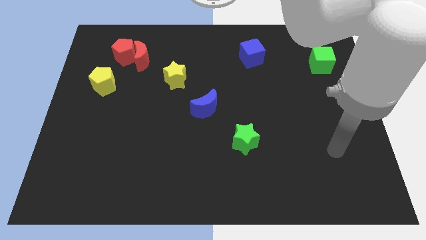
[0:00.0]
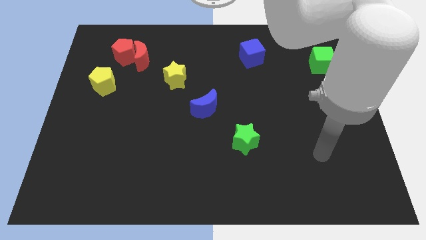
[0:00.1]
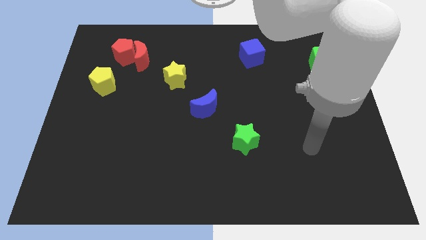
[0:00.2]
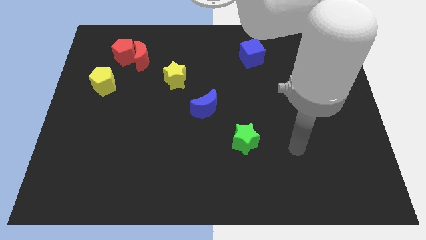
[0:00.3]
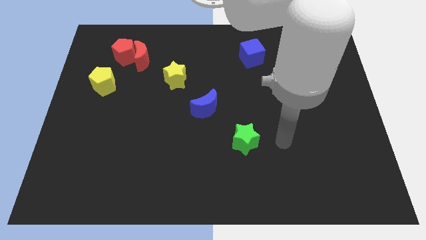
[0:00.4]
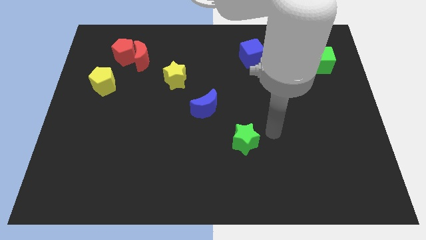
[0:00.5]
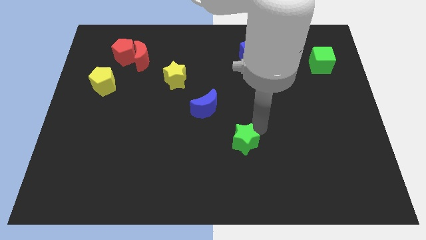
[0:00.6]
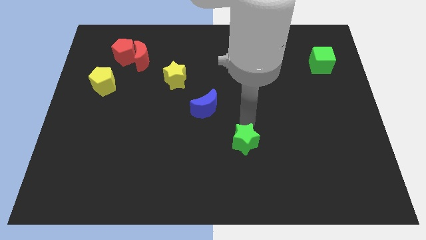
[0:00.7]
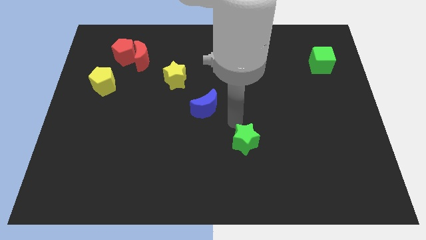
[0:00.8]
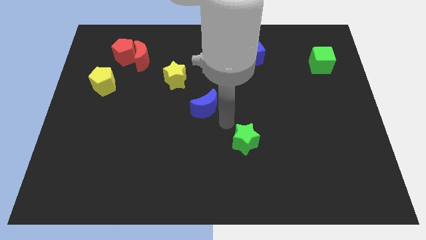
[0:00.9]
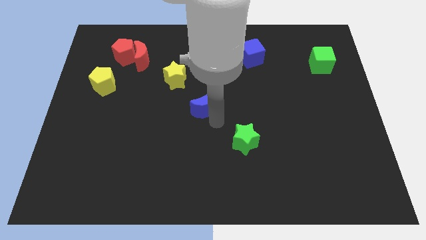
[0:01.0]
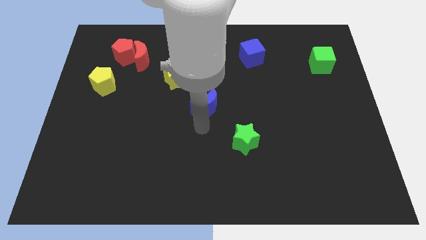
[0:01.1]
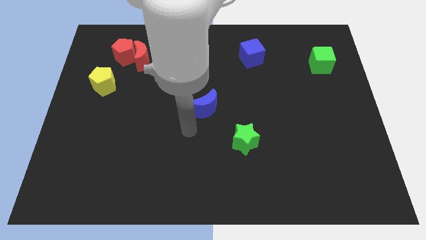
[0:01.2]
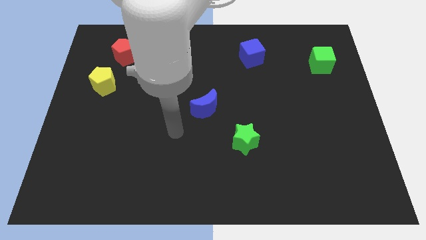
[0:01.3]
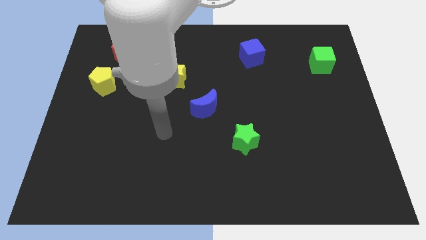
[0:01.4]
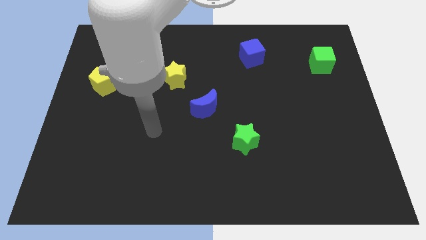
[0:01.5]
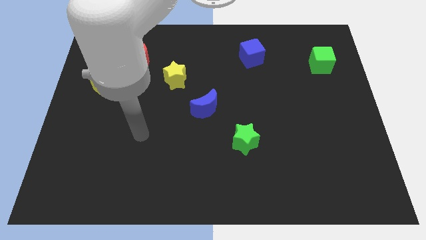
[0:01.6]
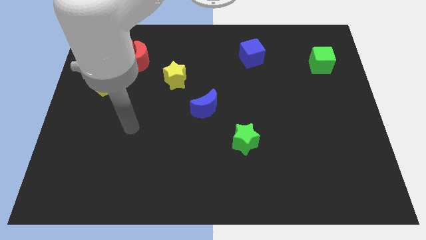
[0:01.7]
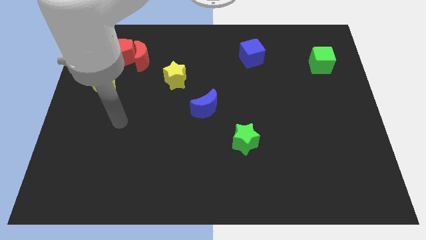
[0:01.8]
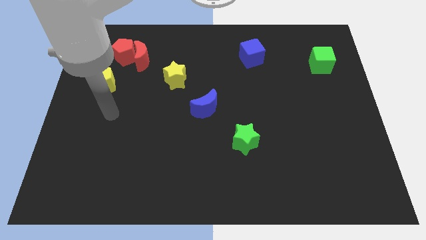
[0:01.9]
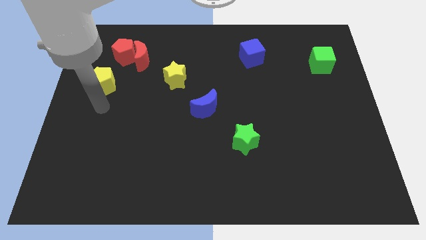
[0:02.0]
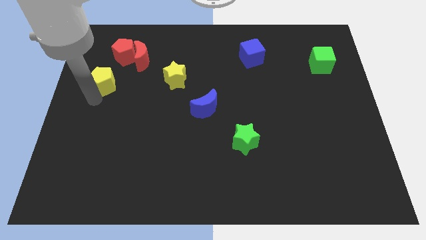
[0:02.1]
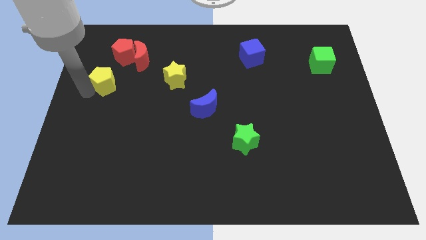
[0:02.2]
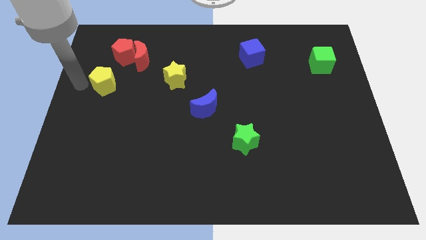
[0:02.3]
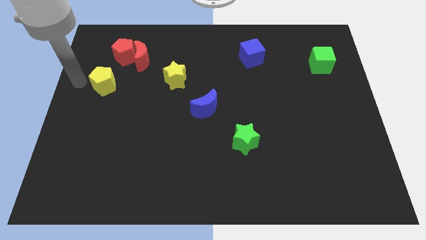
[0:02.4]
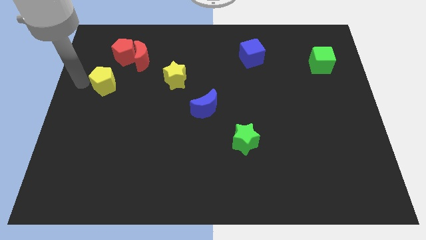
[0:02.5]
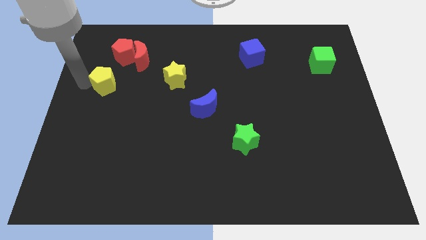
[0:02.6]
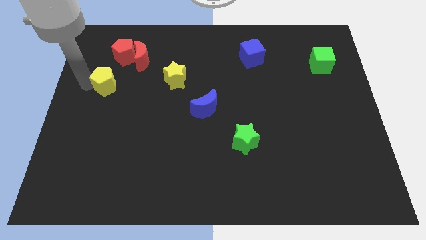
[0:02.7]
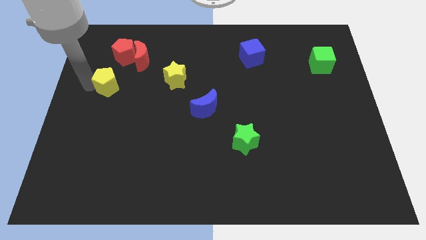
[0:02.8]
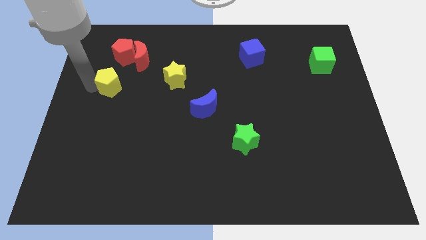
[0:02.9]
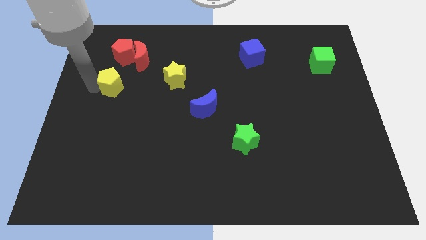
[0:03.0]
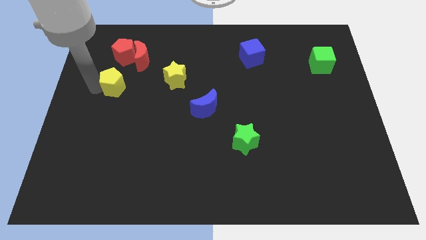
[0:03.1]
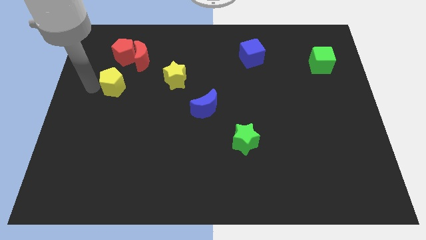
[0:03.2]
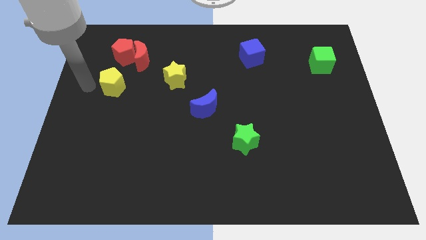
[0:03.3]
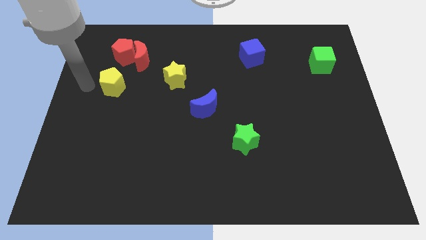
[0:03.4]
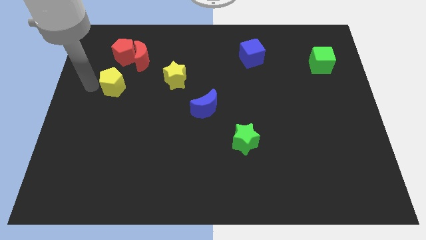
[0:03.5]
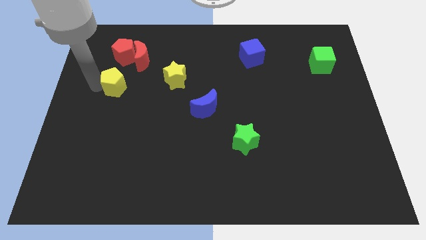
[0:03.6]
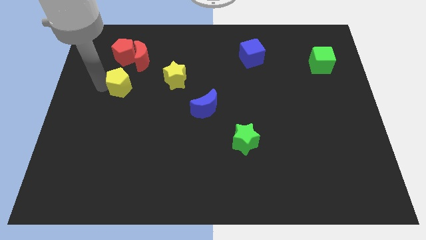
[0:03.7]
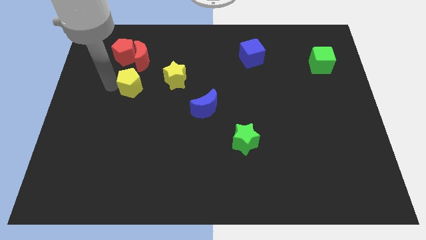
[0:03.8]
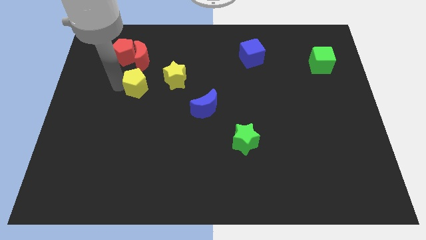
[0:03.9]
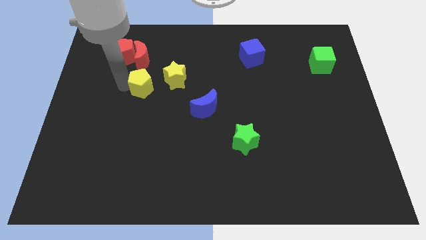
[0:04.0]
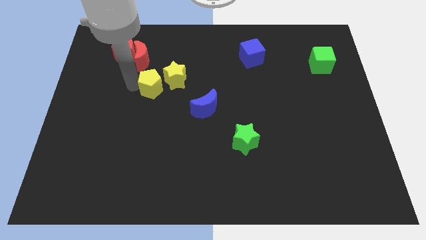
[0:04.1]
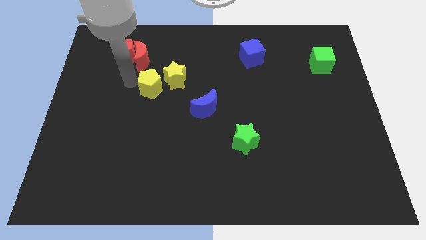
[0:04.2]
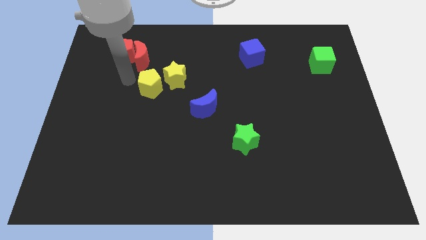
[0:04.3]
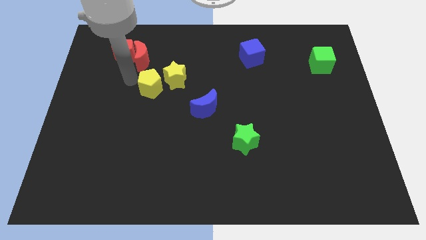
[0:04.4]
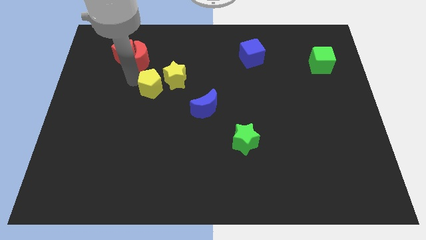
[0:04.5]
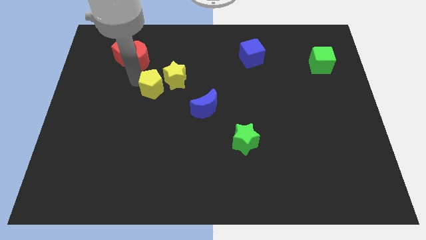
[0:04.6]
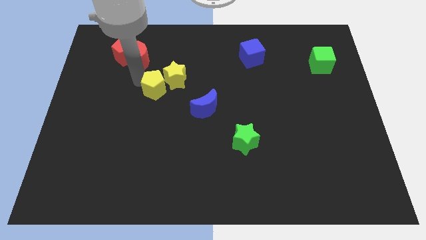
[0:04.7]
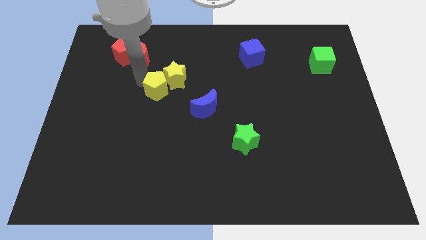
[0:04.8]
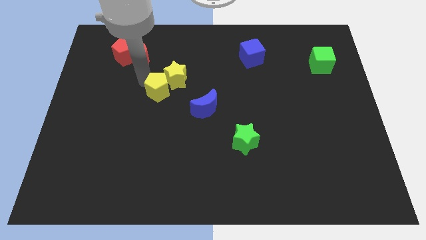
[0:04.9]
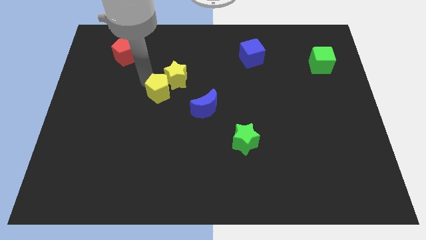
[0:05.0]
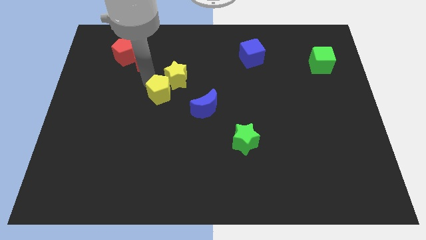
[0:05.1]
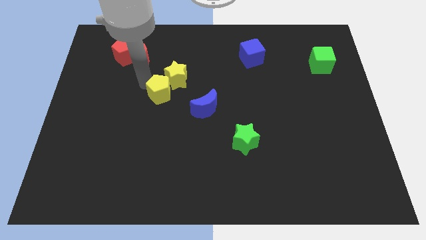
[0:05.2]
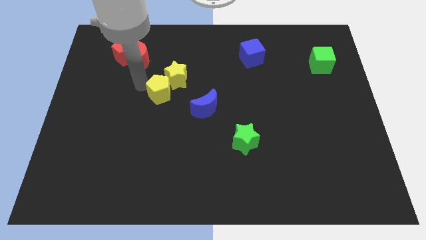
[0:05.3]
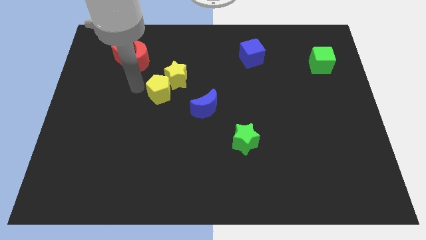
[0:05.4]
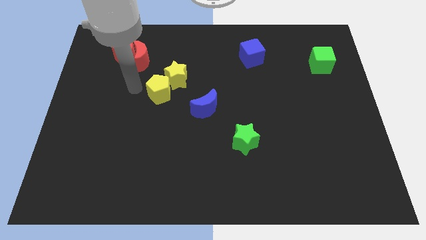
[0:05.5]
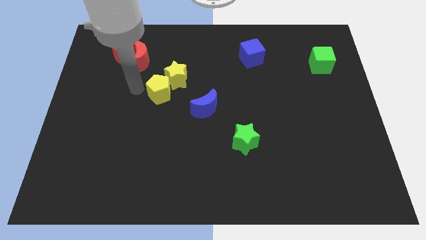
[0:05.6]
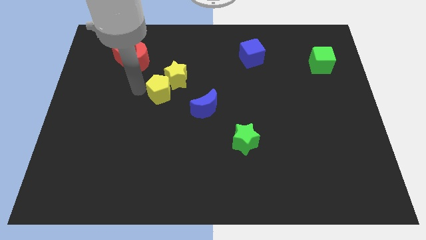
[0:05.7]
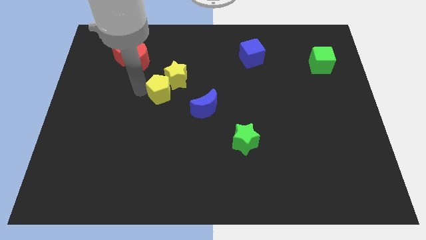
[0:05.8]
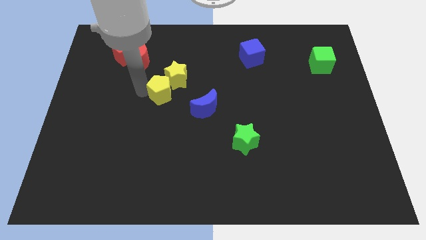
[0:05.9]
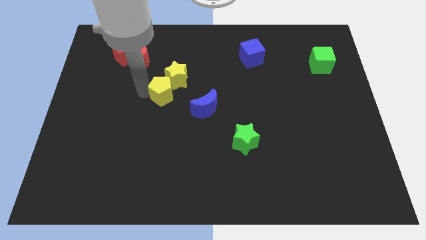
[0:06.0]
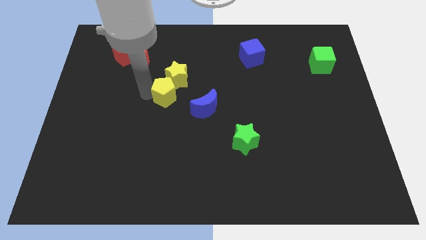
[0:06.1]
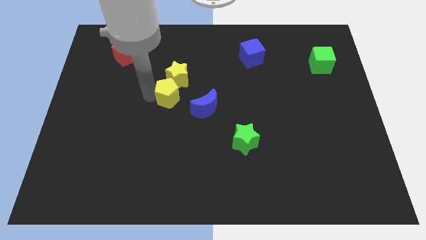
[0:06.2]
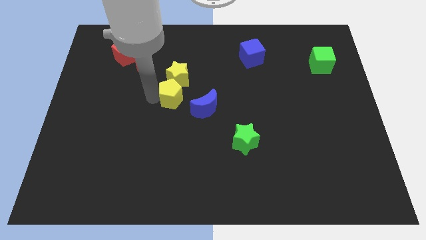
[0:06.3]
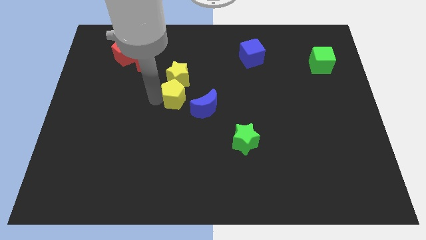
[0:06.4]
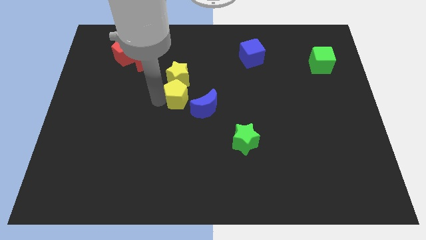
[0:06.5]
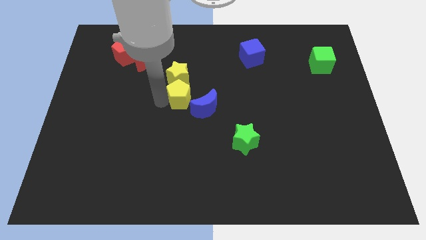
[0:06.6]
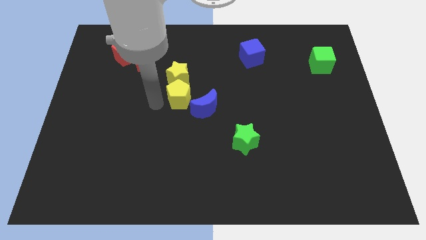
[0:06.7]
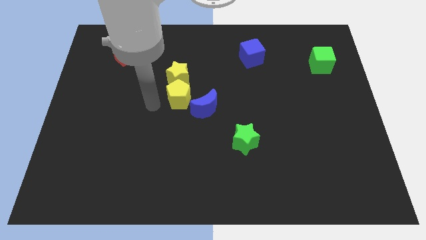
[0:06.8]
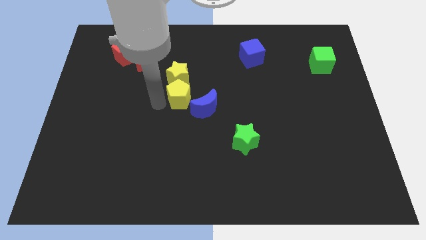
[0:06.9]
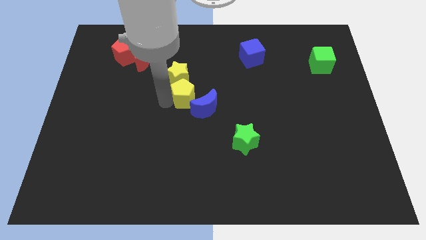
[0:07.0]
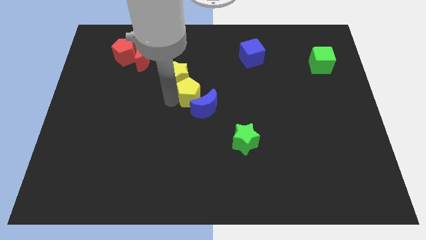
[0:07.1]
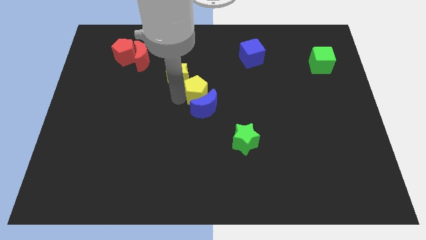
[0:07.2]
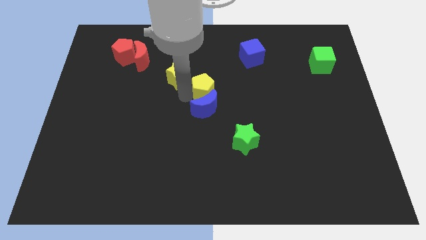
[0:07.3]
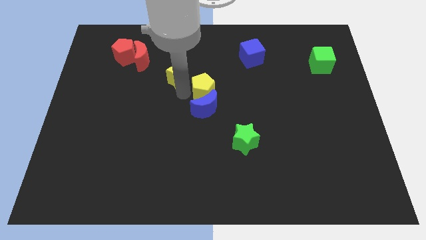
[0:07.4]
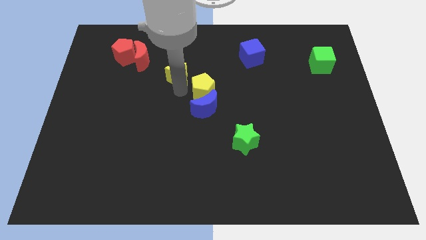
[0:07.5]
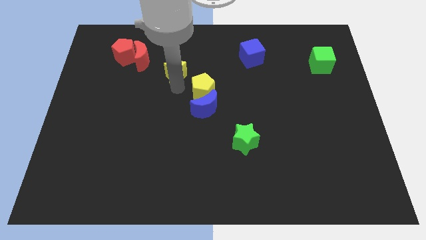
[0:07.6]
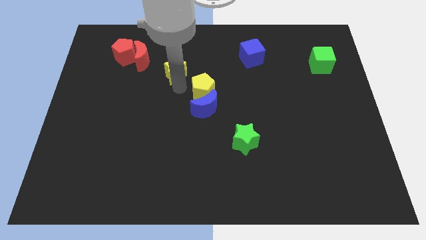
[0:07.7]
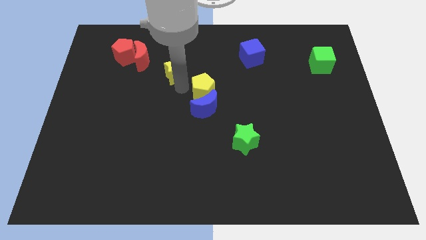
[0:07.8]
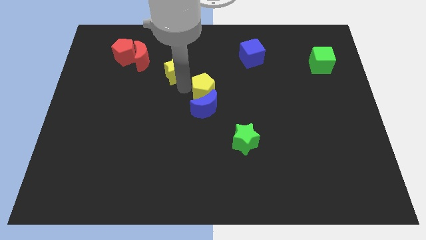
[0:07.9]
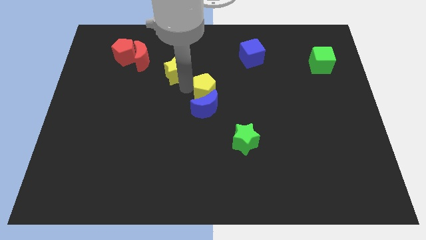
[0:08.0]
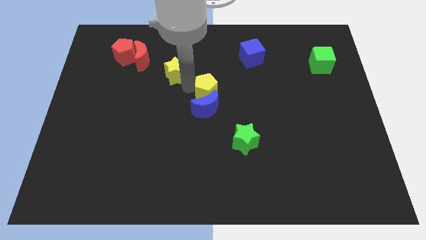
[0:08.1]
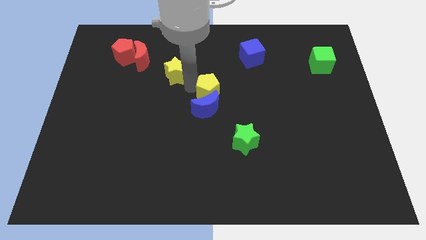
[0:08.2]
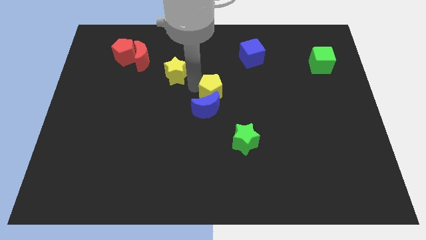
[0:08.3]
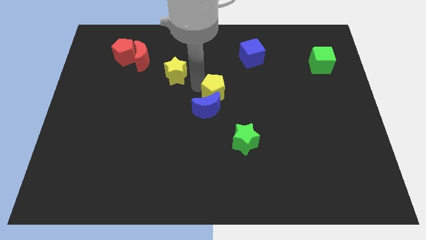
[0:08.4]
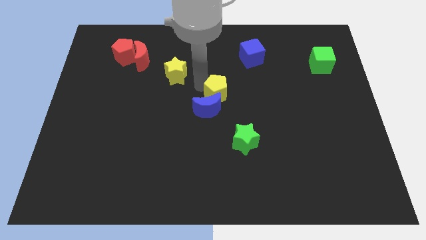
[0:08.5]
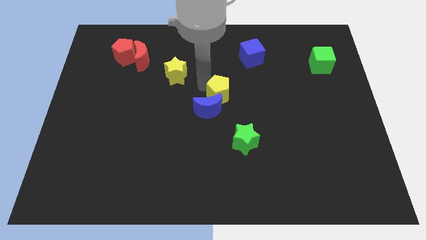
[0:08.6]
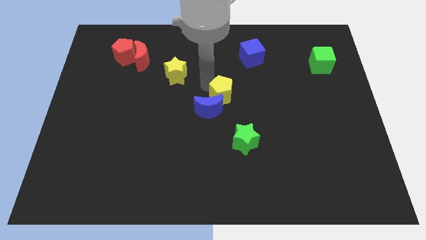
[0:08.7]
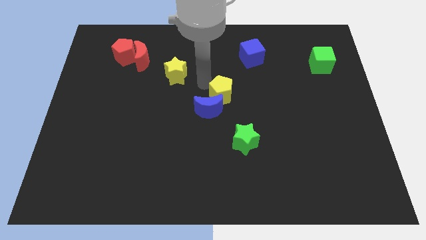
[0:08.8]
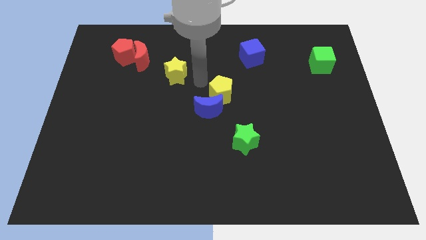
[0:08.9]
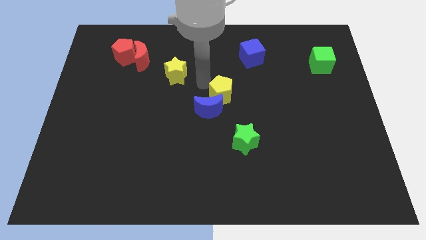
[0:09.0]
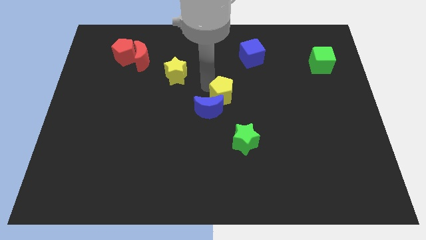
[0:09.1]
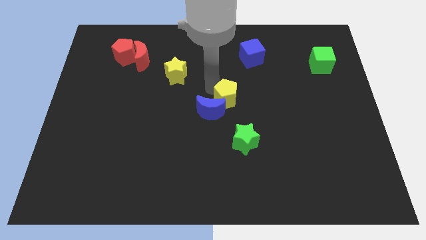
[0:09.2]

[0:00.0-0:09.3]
push the yellow pentagon right of the blue moon
